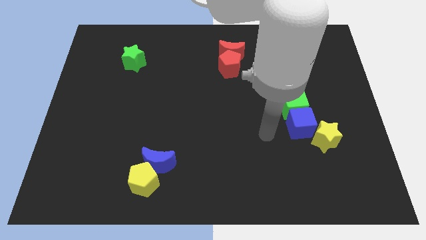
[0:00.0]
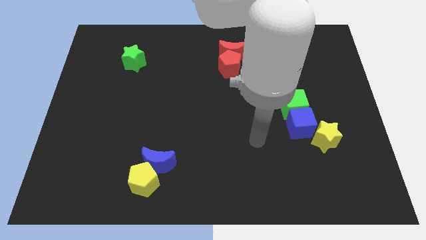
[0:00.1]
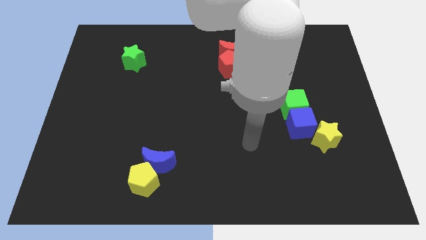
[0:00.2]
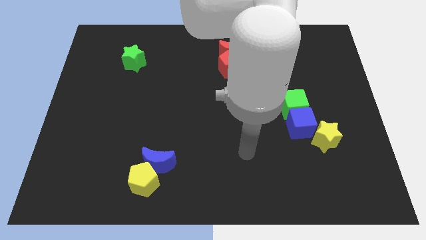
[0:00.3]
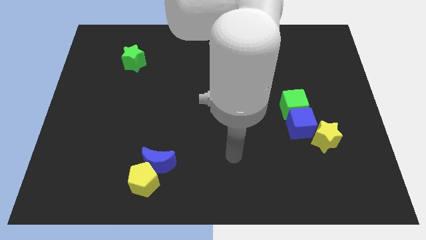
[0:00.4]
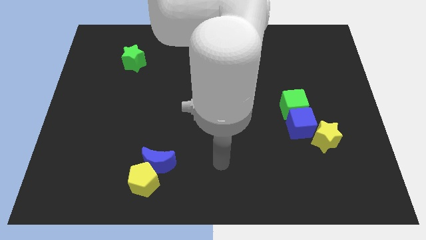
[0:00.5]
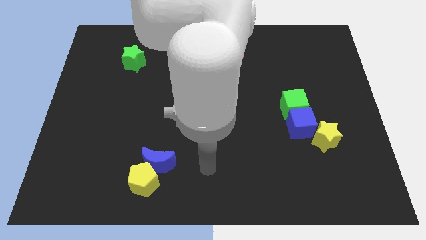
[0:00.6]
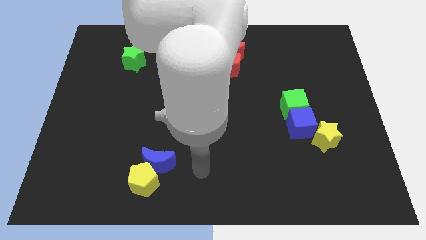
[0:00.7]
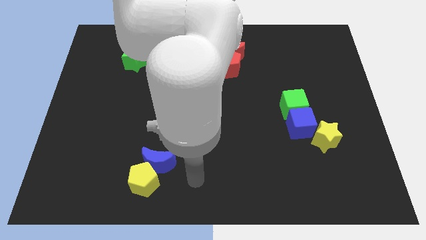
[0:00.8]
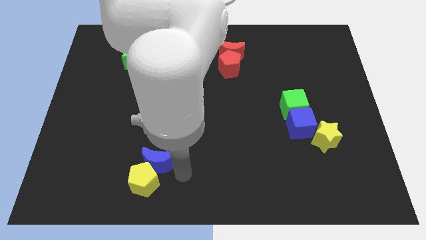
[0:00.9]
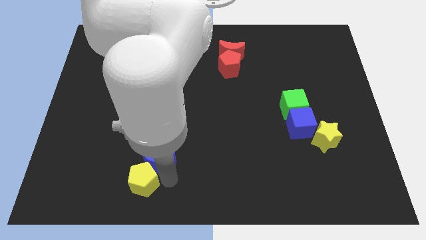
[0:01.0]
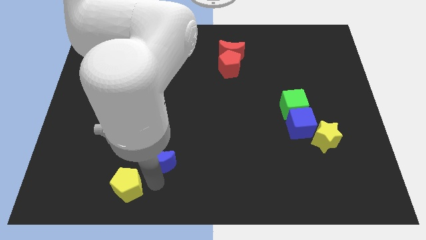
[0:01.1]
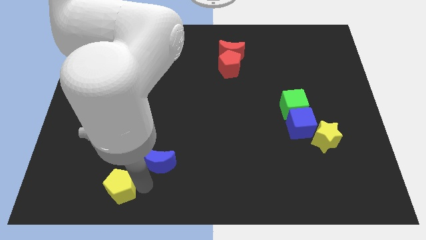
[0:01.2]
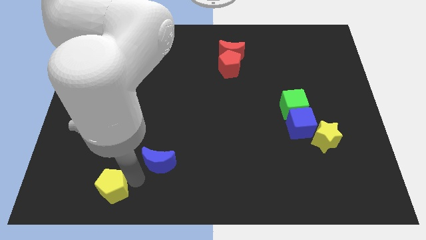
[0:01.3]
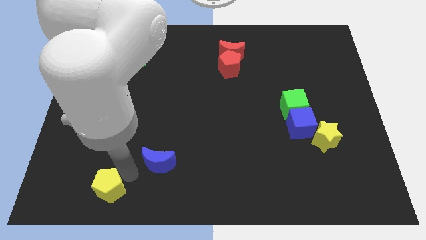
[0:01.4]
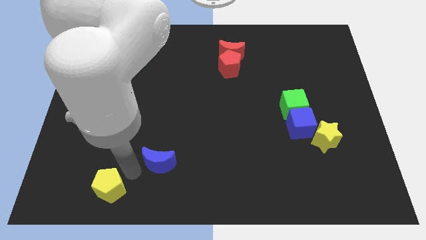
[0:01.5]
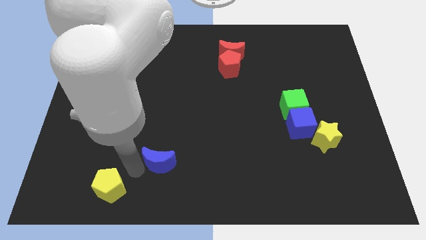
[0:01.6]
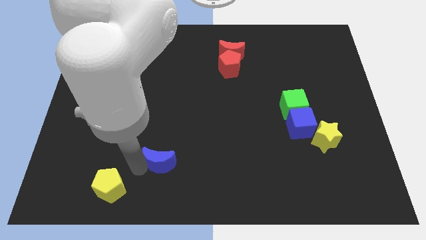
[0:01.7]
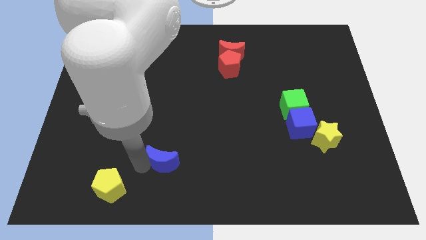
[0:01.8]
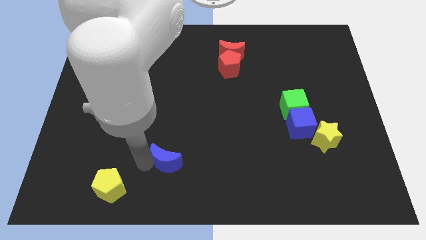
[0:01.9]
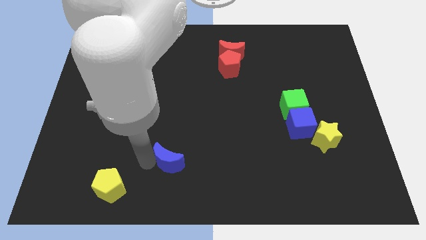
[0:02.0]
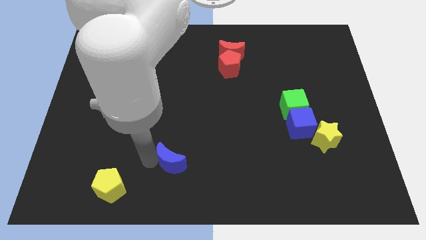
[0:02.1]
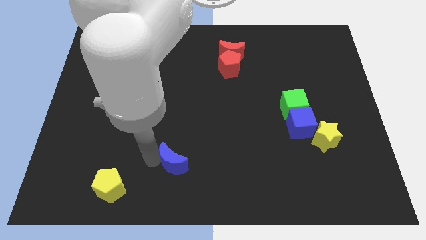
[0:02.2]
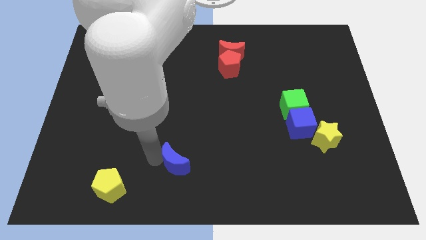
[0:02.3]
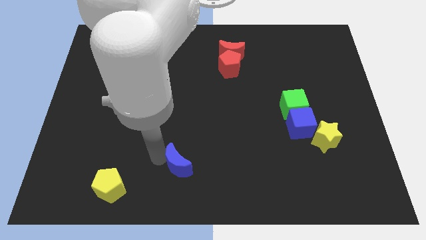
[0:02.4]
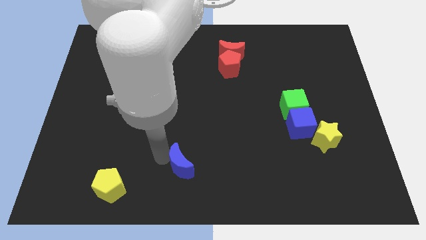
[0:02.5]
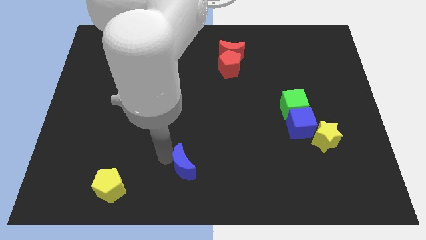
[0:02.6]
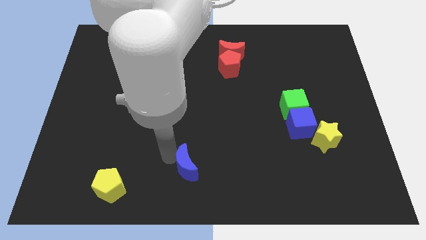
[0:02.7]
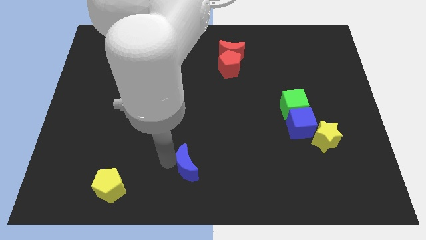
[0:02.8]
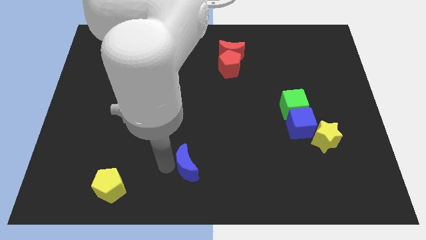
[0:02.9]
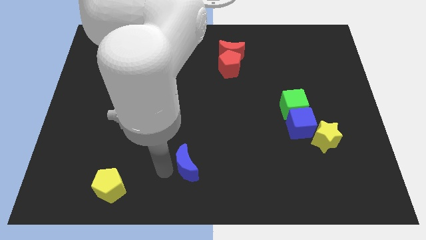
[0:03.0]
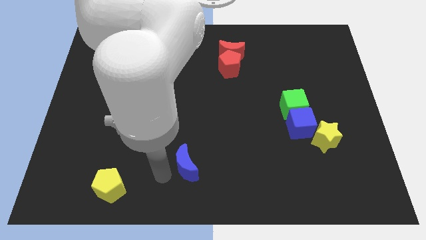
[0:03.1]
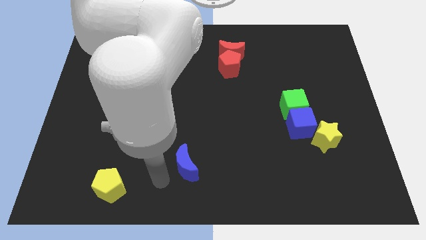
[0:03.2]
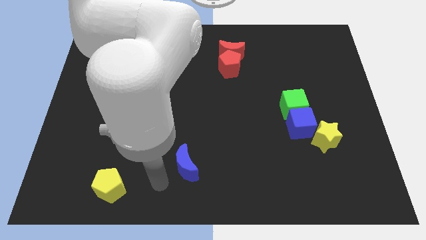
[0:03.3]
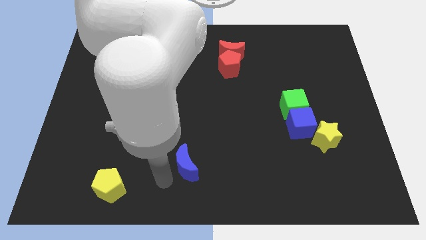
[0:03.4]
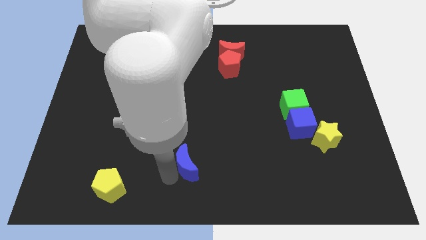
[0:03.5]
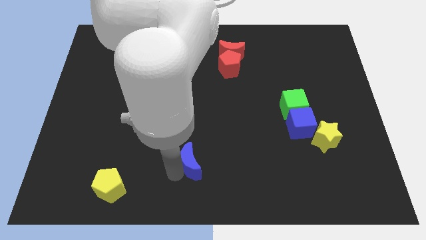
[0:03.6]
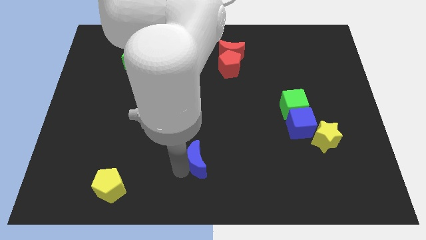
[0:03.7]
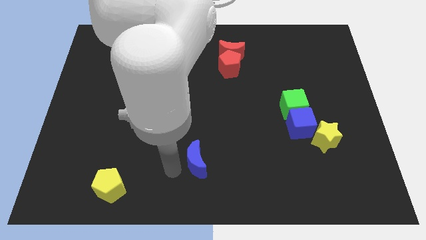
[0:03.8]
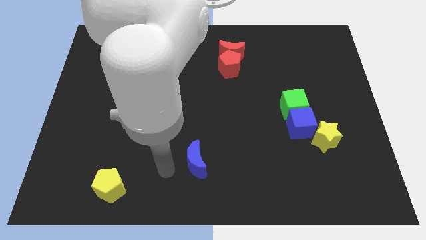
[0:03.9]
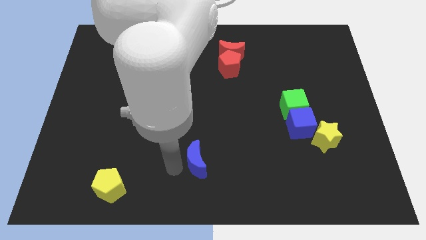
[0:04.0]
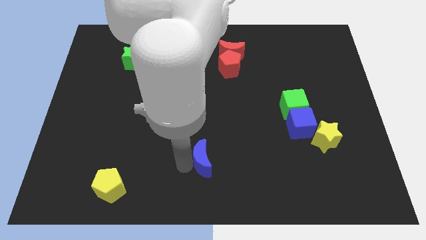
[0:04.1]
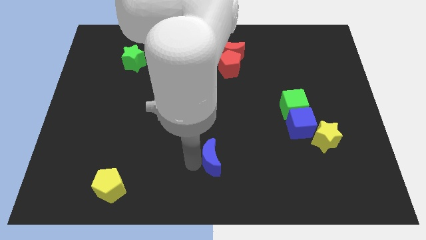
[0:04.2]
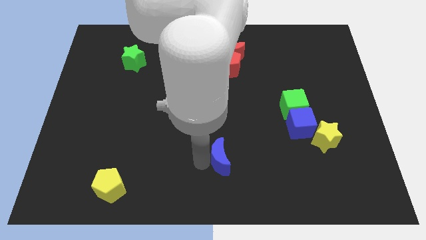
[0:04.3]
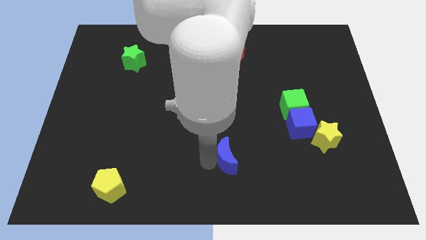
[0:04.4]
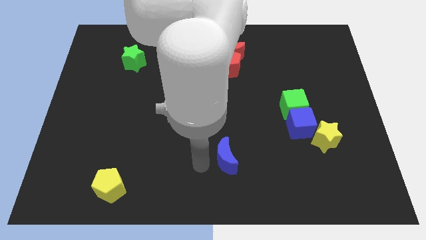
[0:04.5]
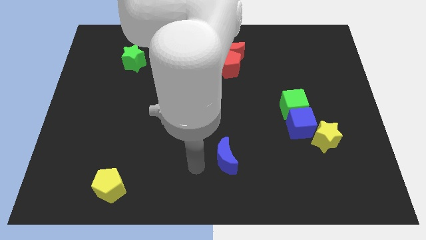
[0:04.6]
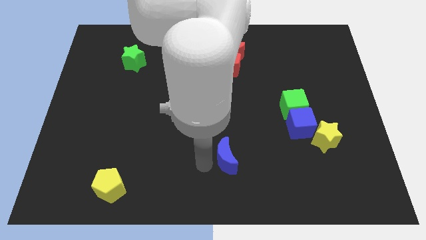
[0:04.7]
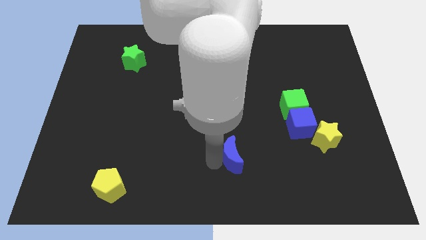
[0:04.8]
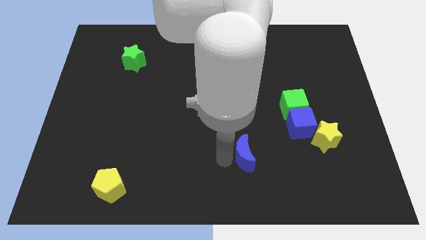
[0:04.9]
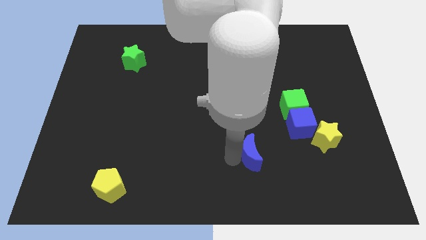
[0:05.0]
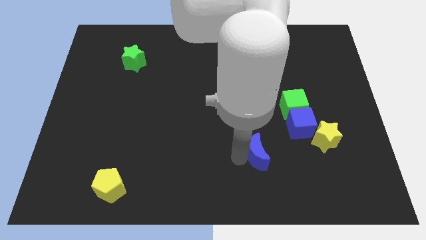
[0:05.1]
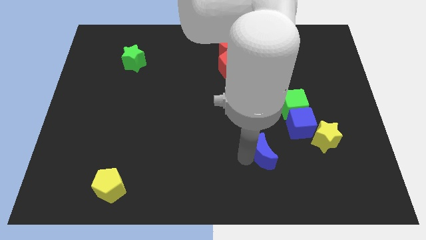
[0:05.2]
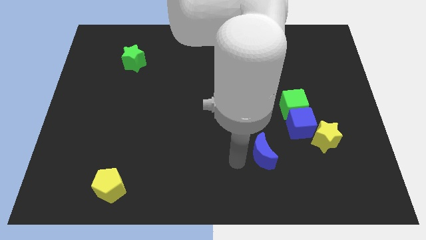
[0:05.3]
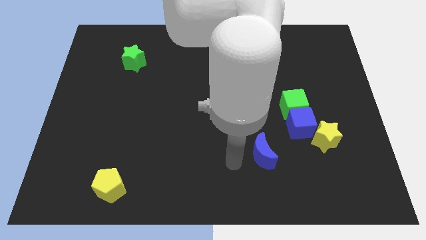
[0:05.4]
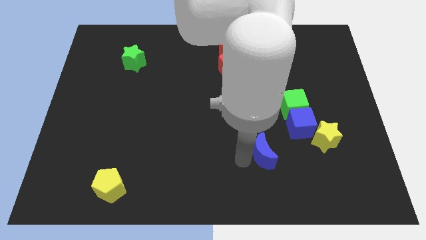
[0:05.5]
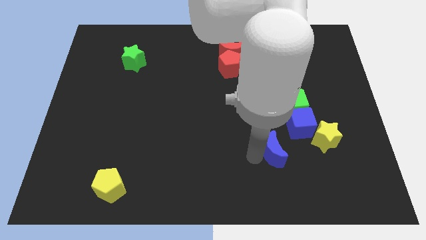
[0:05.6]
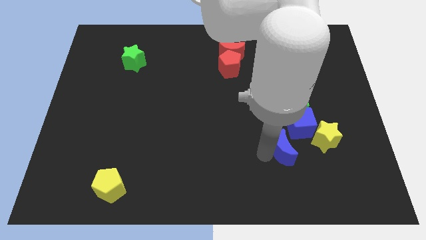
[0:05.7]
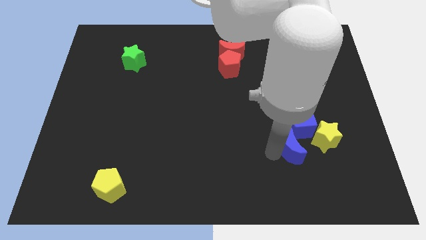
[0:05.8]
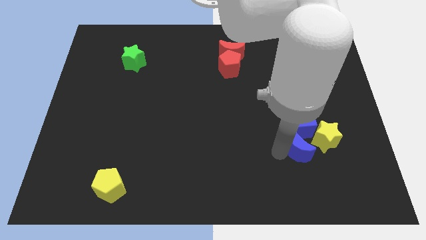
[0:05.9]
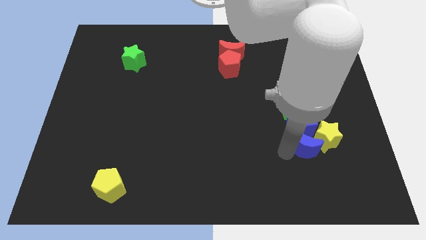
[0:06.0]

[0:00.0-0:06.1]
move the blue moon towards the yellow star

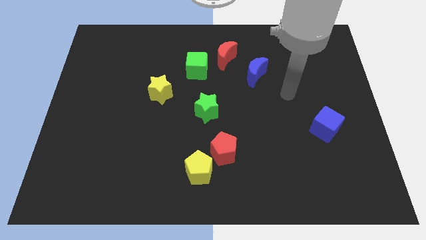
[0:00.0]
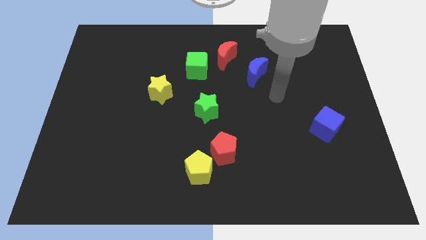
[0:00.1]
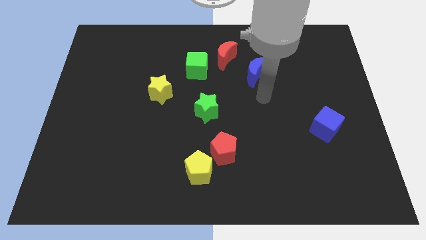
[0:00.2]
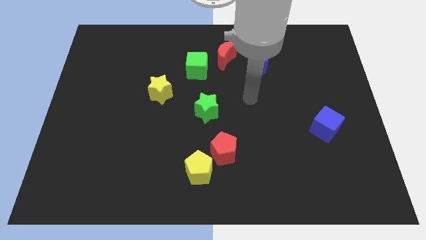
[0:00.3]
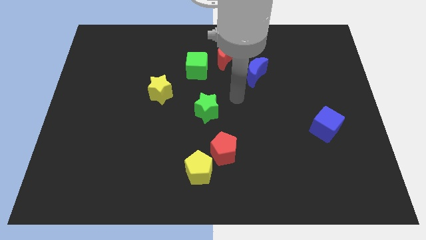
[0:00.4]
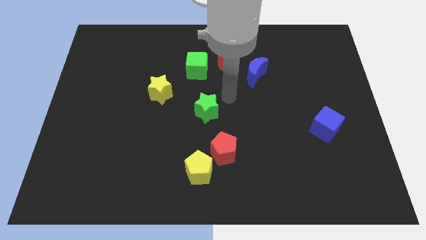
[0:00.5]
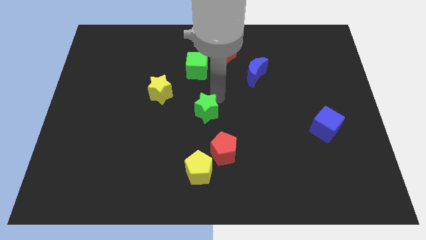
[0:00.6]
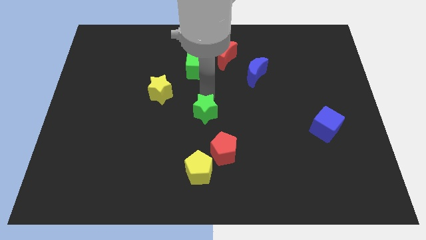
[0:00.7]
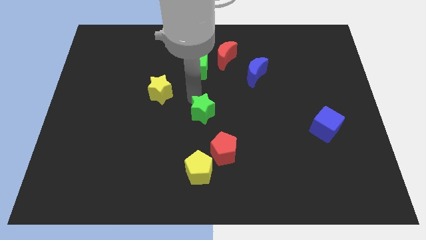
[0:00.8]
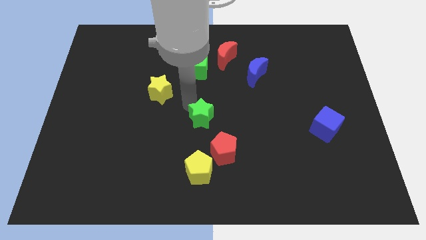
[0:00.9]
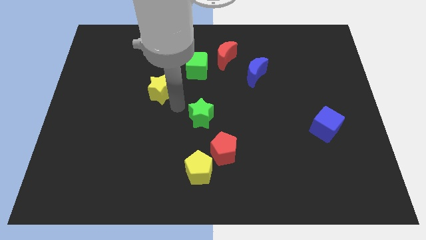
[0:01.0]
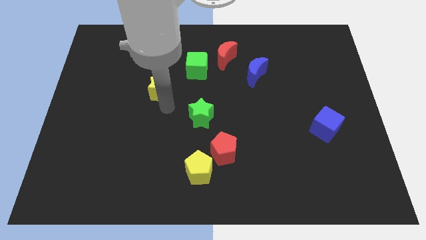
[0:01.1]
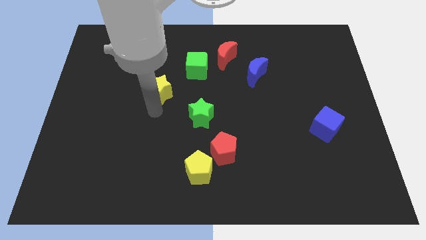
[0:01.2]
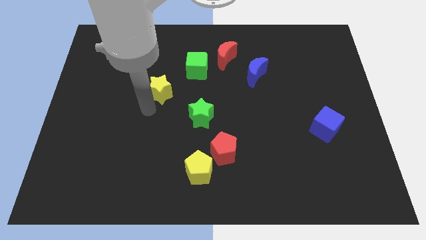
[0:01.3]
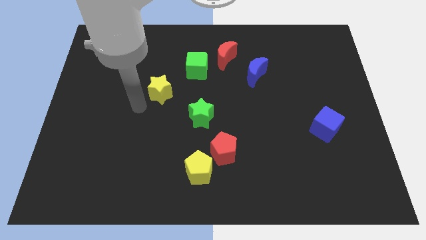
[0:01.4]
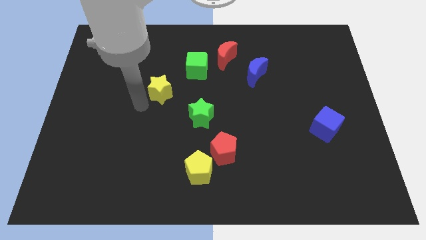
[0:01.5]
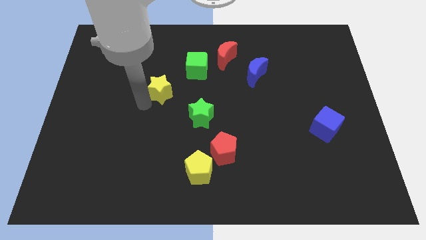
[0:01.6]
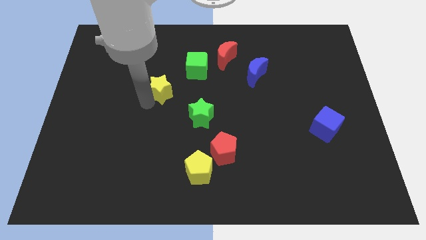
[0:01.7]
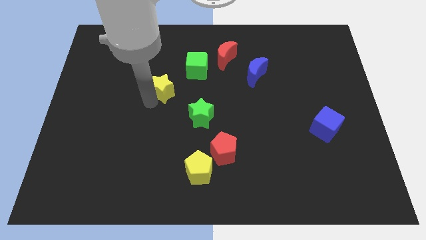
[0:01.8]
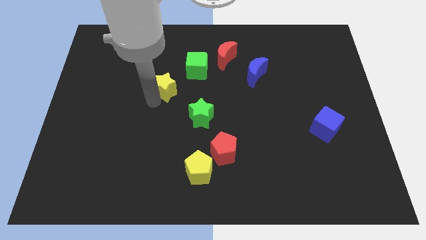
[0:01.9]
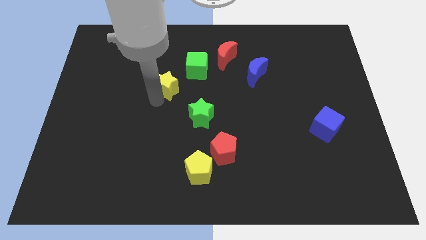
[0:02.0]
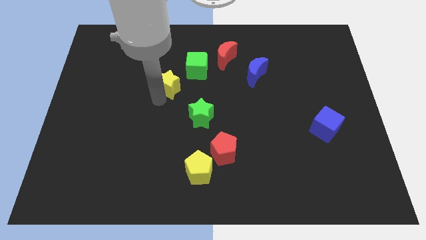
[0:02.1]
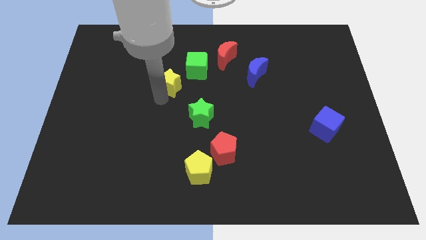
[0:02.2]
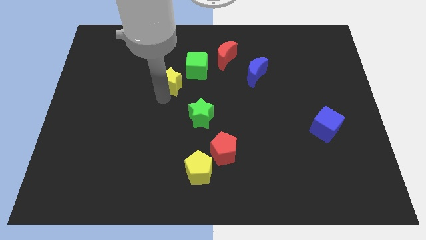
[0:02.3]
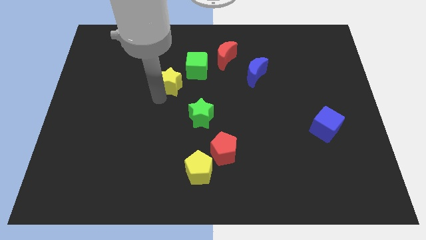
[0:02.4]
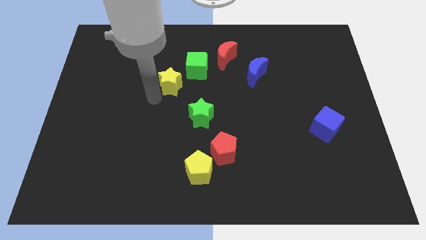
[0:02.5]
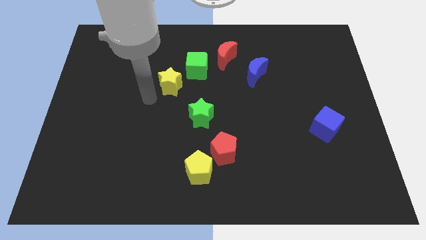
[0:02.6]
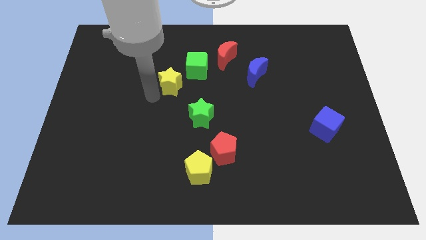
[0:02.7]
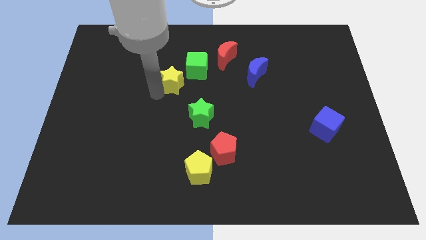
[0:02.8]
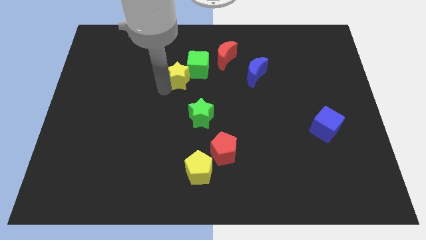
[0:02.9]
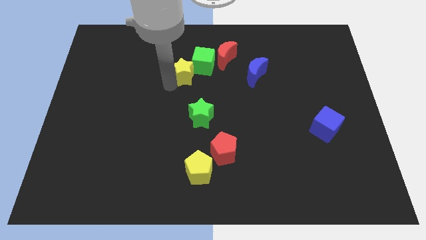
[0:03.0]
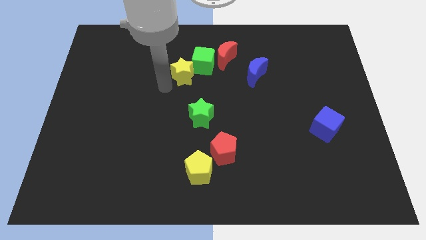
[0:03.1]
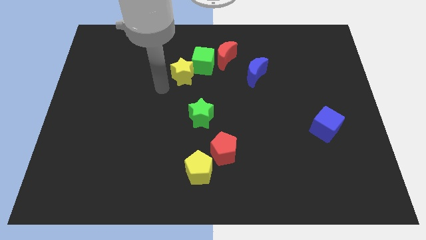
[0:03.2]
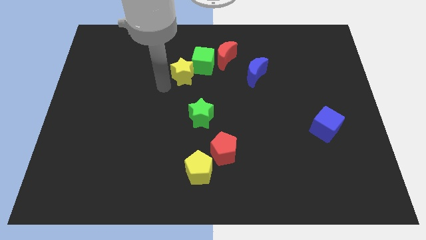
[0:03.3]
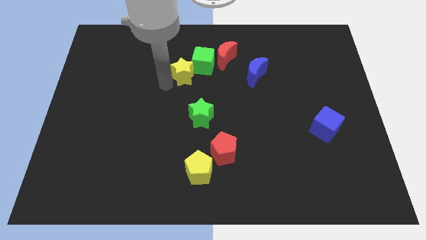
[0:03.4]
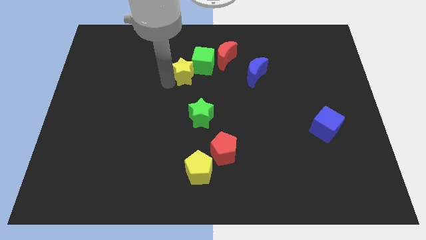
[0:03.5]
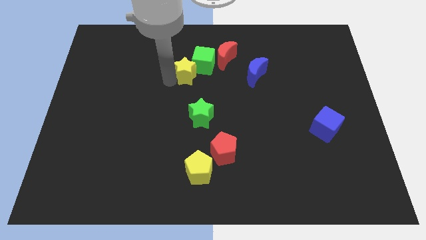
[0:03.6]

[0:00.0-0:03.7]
put the yellow star close to the green cube
